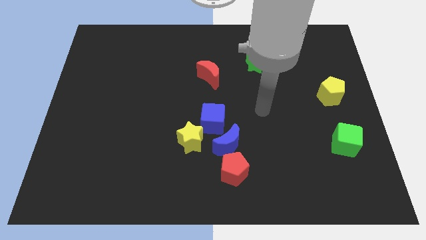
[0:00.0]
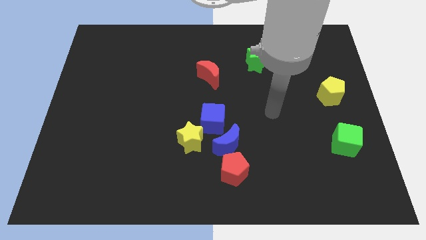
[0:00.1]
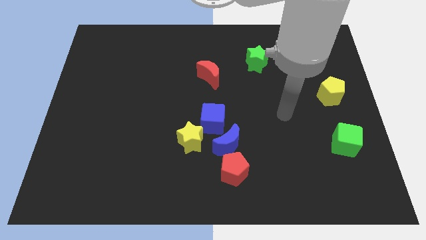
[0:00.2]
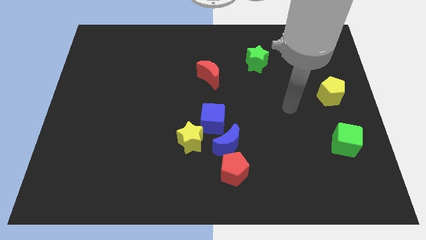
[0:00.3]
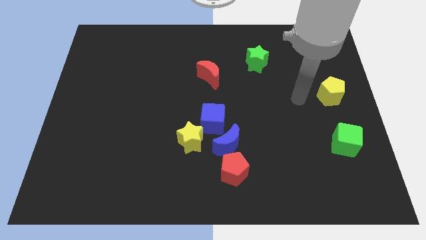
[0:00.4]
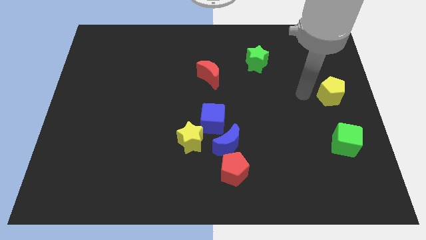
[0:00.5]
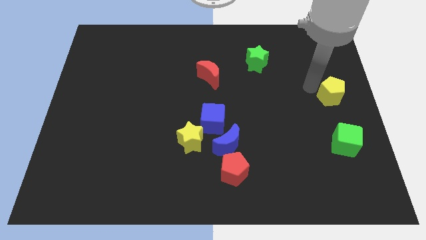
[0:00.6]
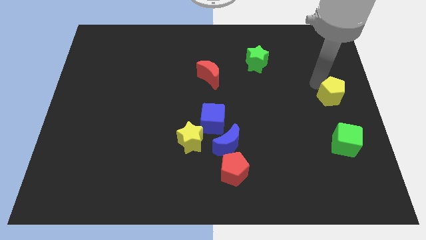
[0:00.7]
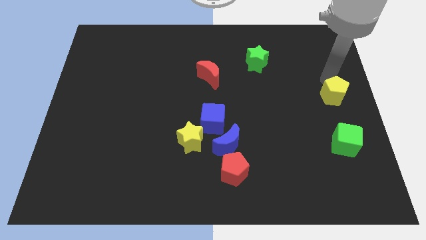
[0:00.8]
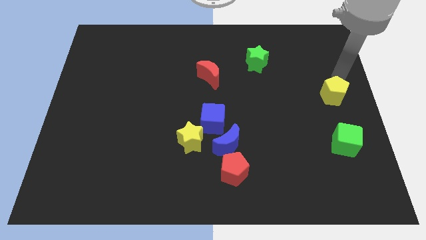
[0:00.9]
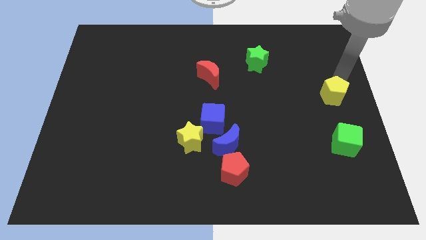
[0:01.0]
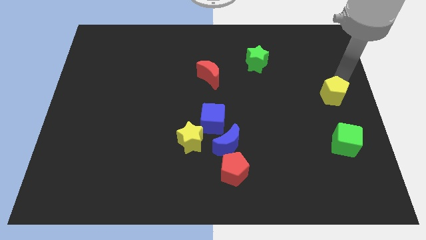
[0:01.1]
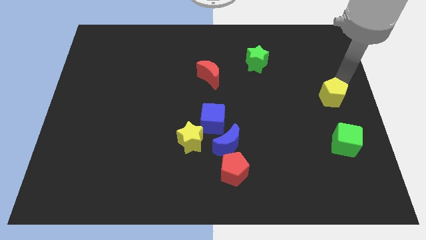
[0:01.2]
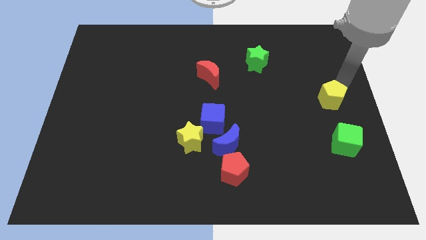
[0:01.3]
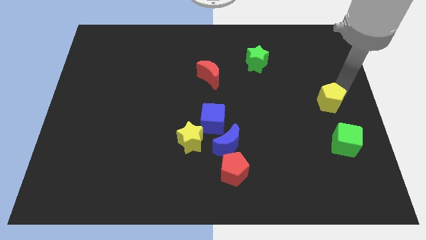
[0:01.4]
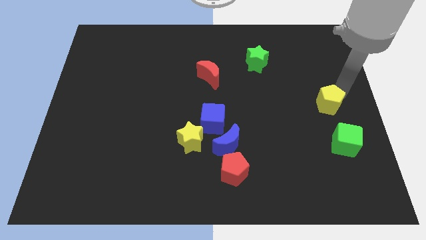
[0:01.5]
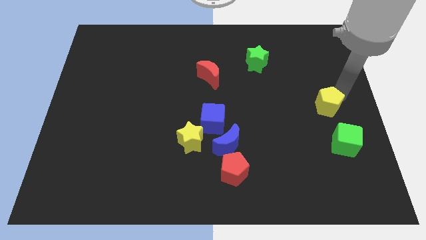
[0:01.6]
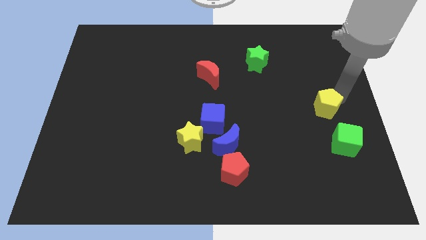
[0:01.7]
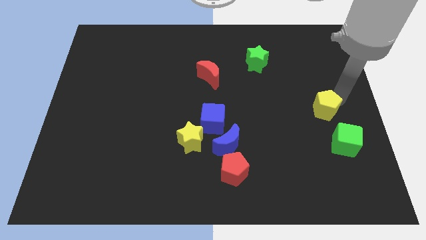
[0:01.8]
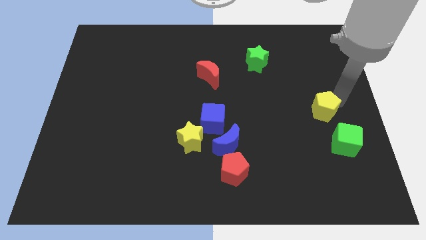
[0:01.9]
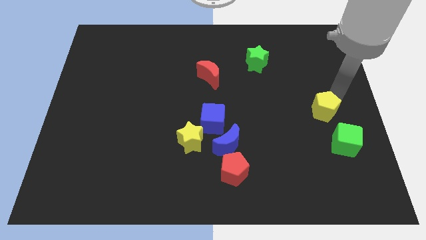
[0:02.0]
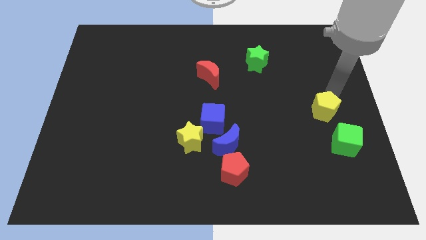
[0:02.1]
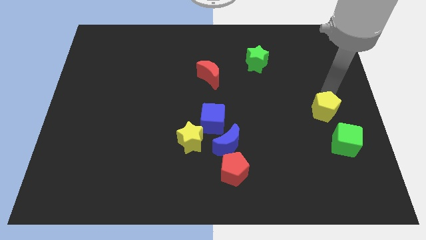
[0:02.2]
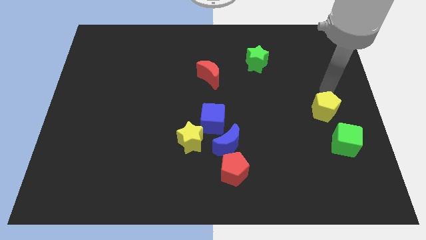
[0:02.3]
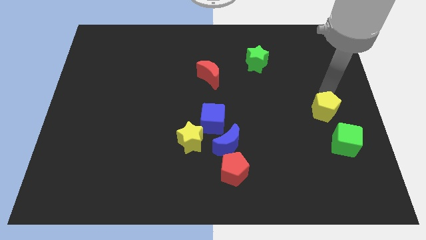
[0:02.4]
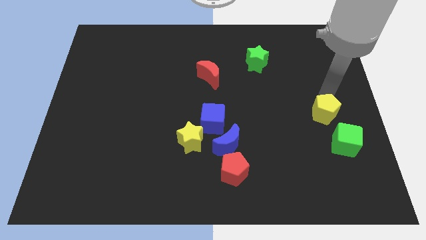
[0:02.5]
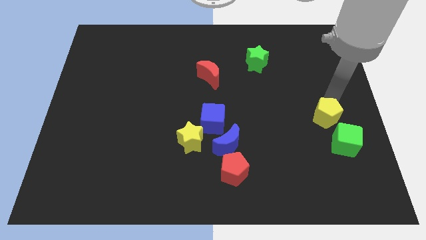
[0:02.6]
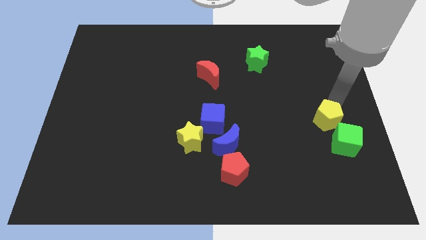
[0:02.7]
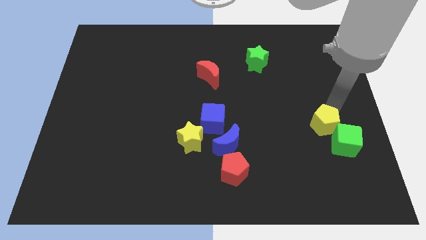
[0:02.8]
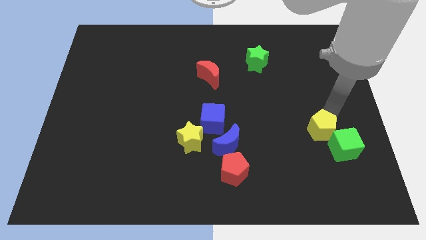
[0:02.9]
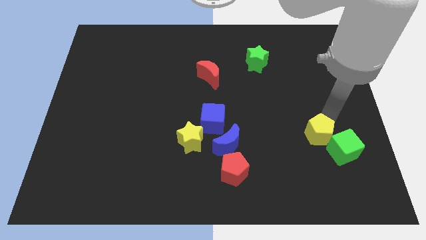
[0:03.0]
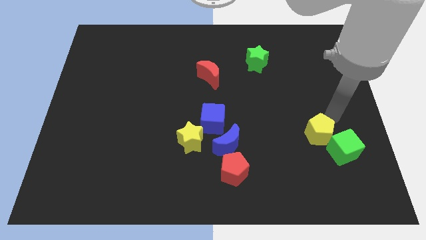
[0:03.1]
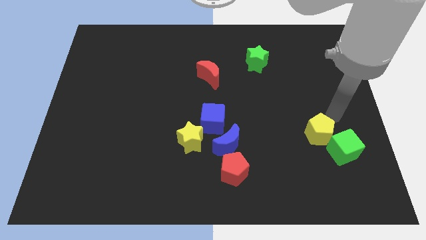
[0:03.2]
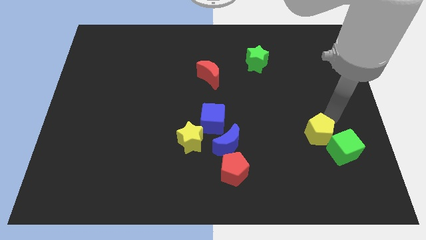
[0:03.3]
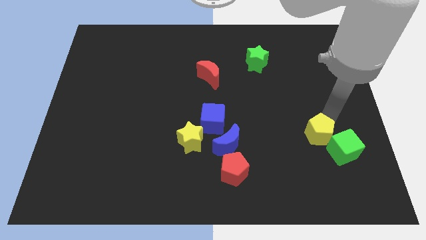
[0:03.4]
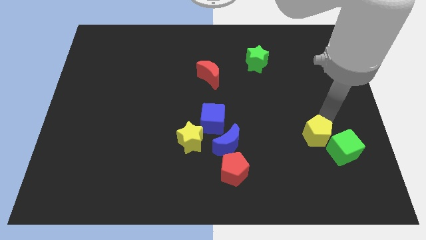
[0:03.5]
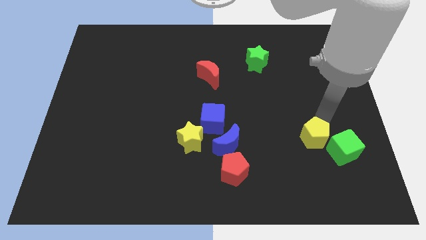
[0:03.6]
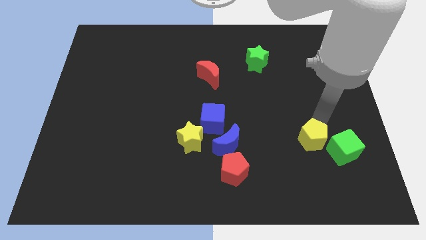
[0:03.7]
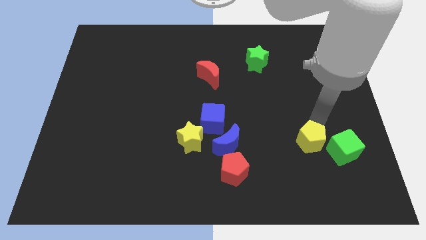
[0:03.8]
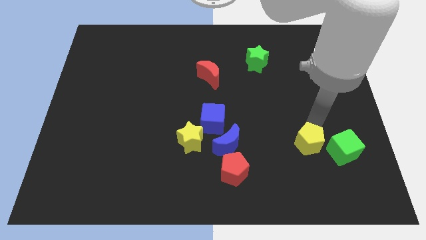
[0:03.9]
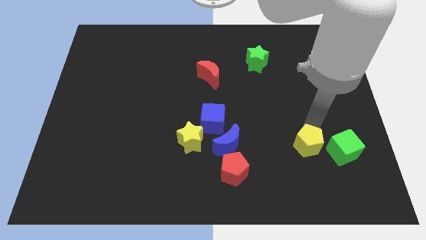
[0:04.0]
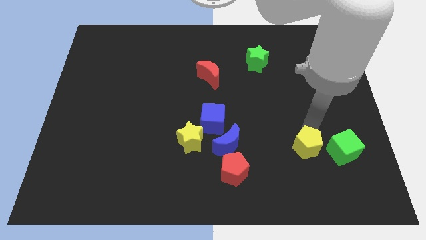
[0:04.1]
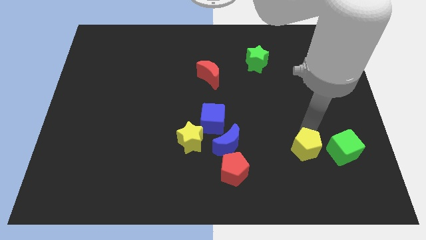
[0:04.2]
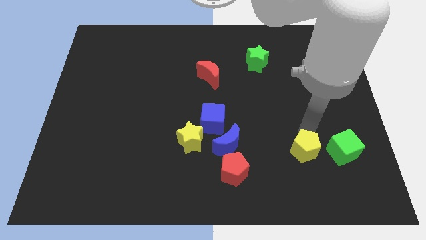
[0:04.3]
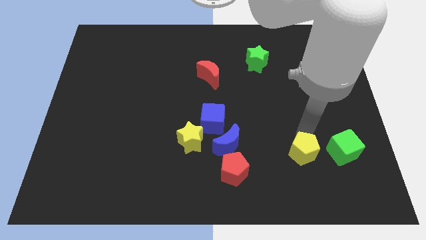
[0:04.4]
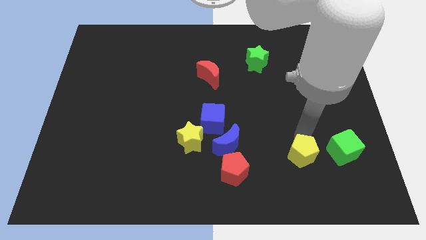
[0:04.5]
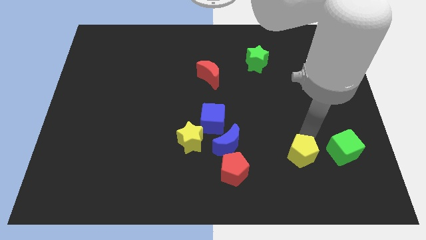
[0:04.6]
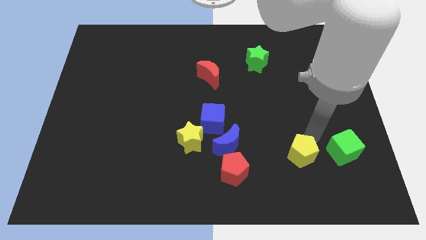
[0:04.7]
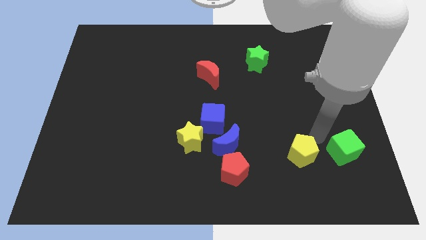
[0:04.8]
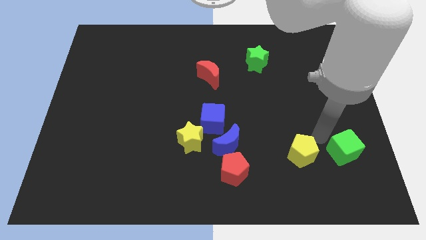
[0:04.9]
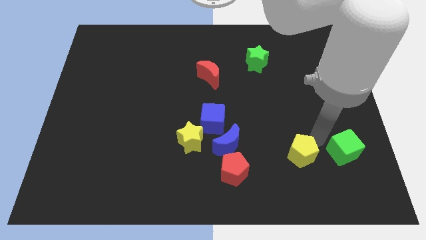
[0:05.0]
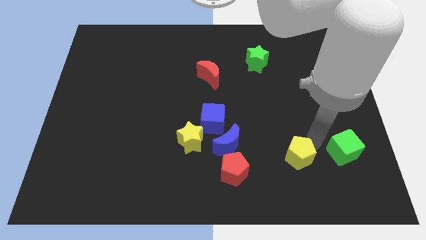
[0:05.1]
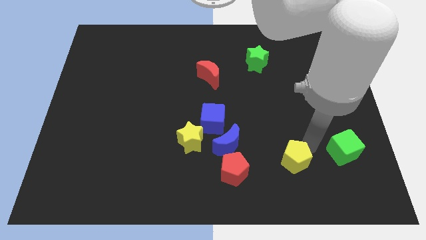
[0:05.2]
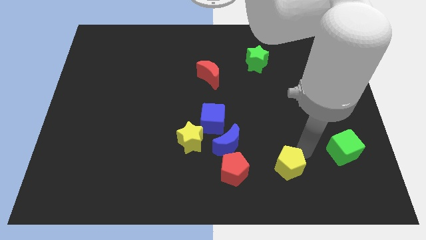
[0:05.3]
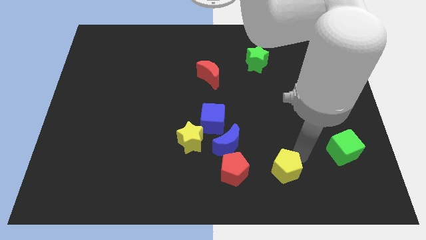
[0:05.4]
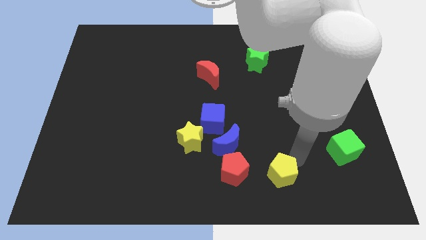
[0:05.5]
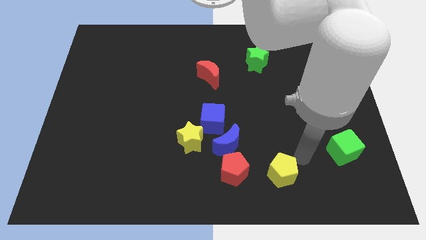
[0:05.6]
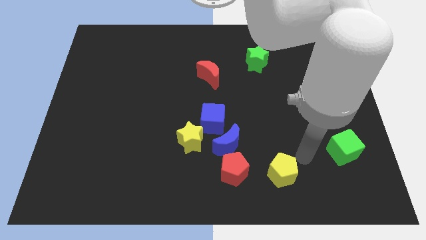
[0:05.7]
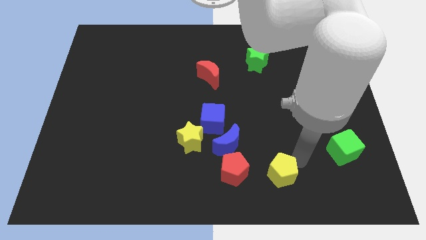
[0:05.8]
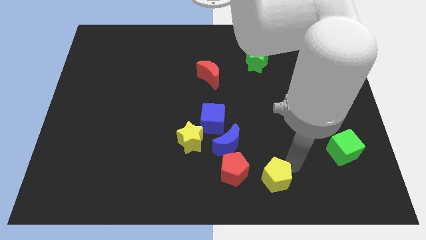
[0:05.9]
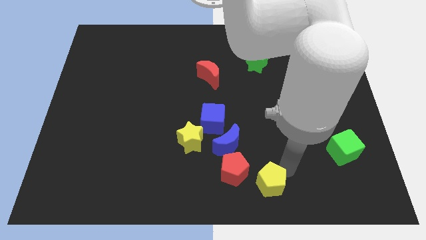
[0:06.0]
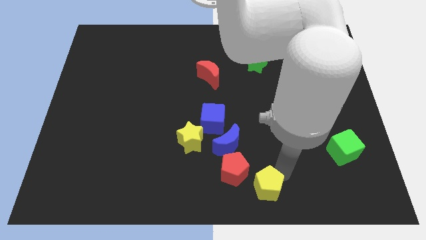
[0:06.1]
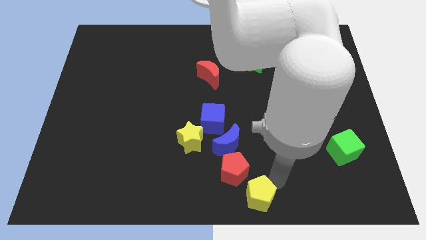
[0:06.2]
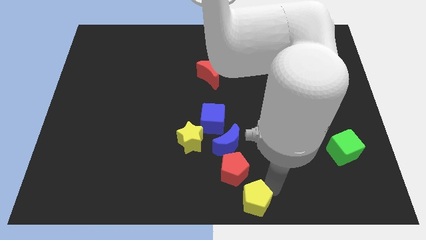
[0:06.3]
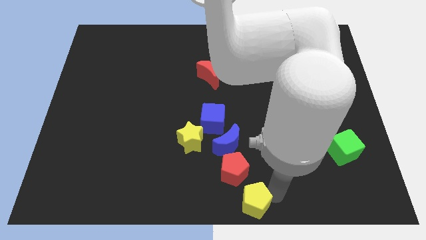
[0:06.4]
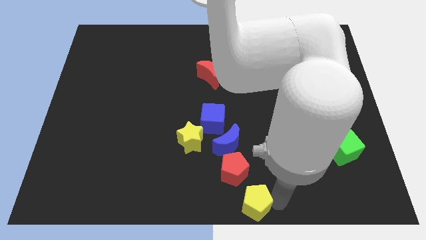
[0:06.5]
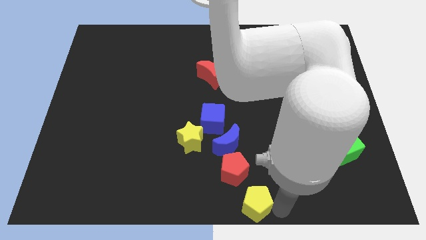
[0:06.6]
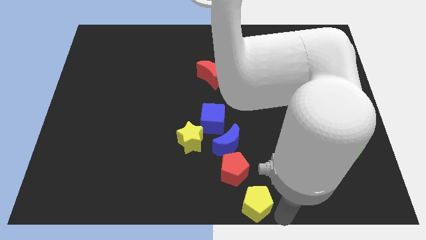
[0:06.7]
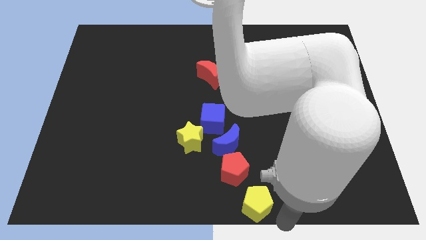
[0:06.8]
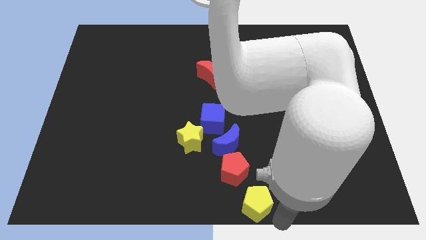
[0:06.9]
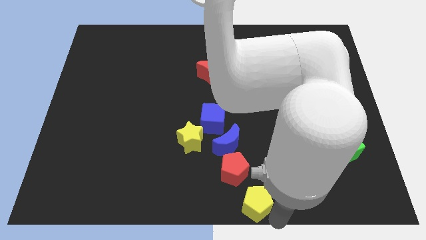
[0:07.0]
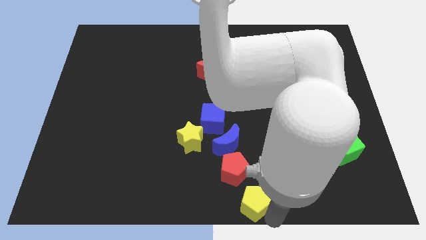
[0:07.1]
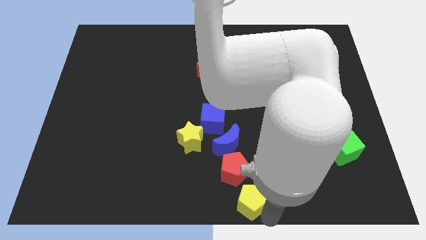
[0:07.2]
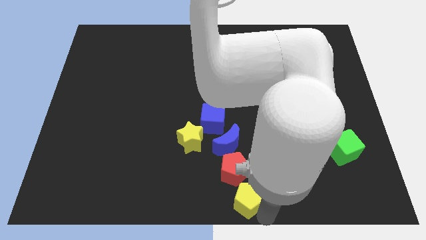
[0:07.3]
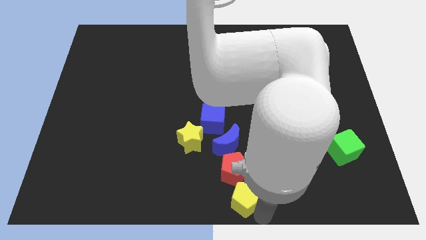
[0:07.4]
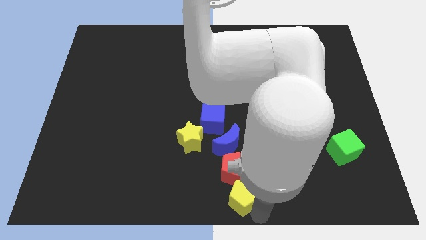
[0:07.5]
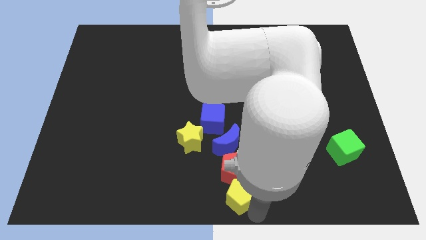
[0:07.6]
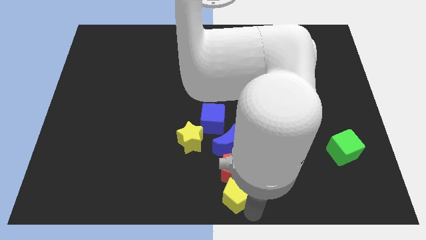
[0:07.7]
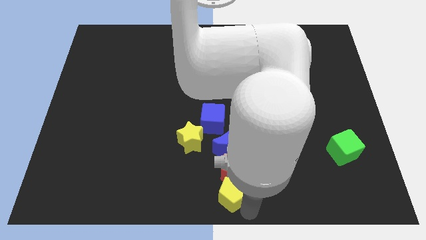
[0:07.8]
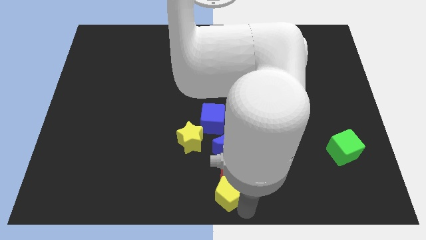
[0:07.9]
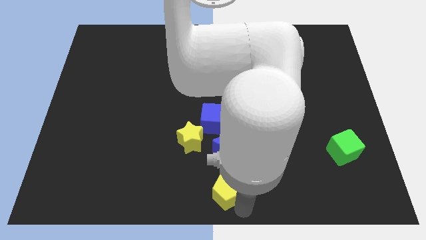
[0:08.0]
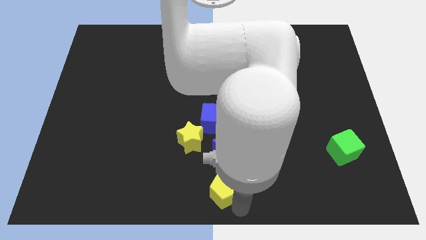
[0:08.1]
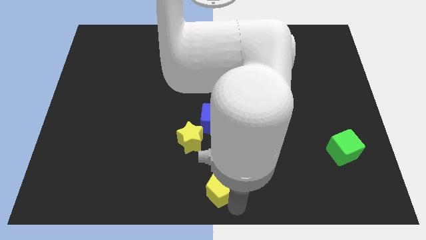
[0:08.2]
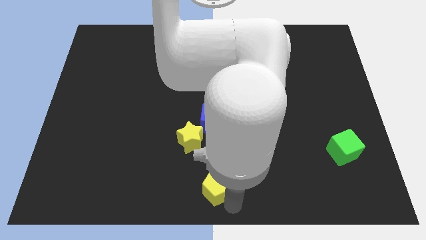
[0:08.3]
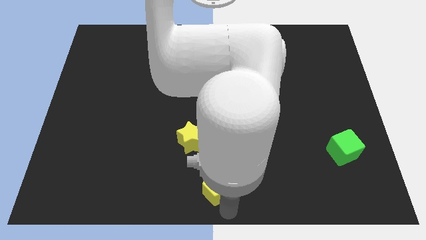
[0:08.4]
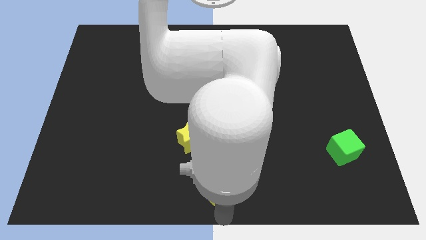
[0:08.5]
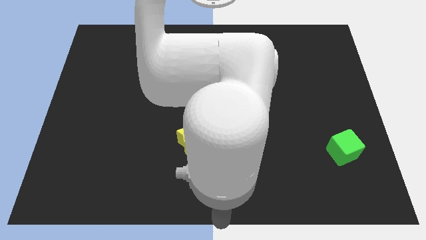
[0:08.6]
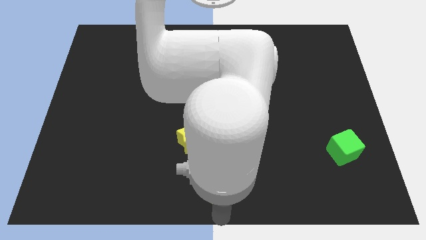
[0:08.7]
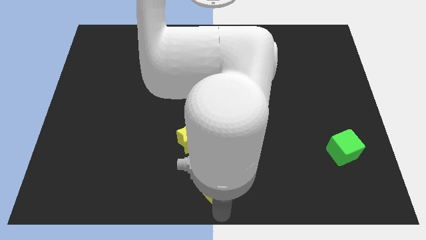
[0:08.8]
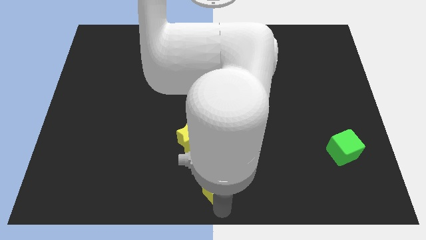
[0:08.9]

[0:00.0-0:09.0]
slide the yellow pentagon to the bottom of the blue cube
